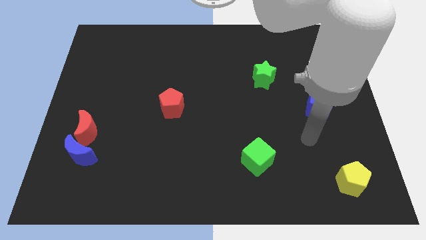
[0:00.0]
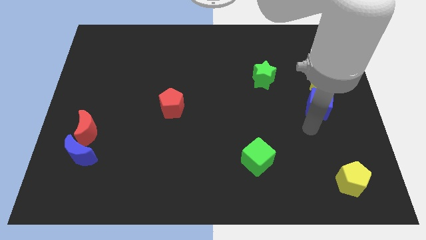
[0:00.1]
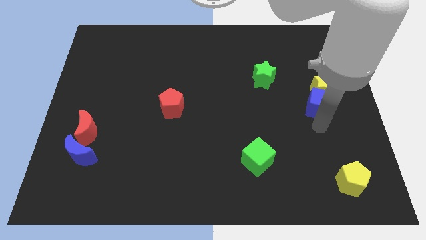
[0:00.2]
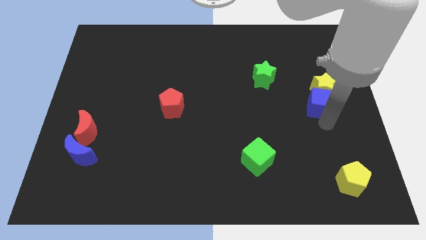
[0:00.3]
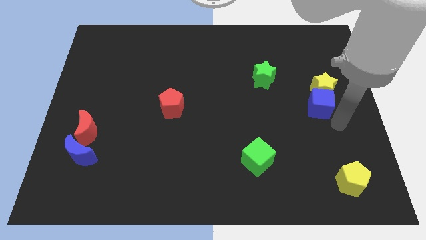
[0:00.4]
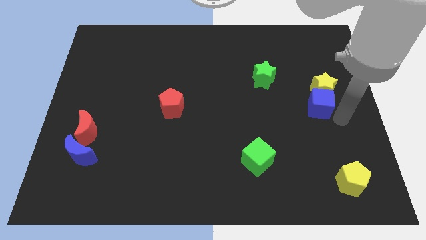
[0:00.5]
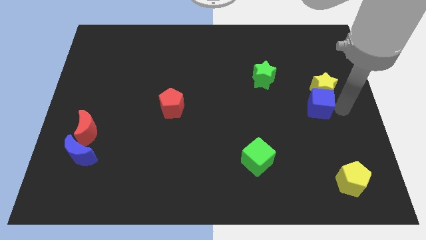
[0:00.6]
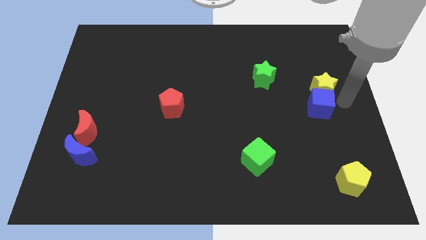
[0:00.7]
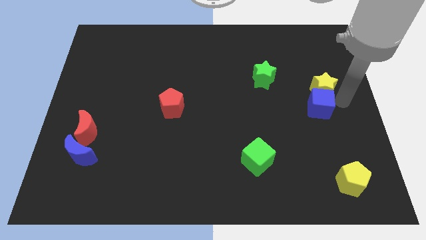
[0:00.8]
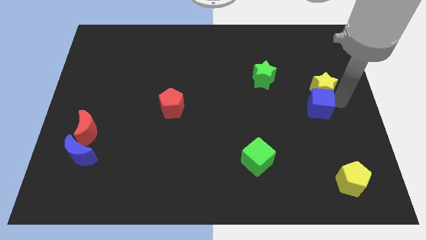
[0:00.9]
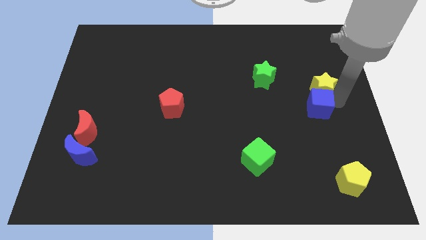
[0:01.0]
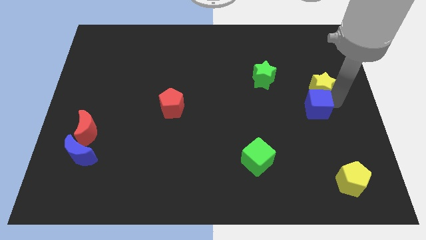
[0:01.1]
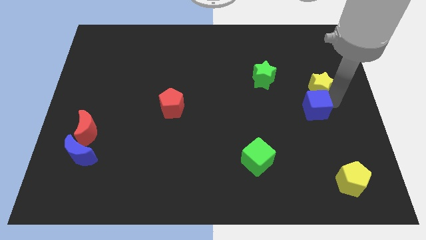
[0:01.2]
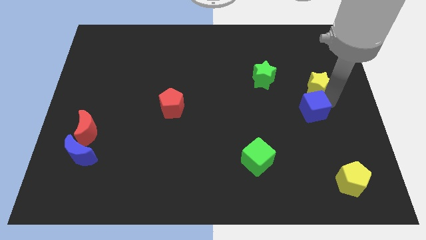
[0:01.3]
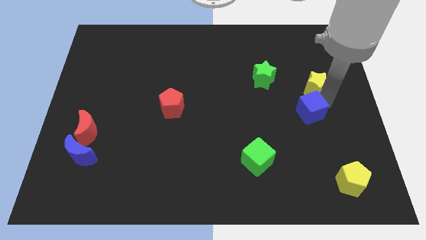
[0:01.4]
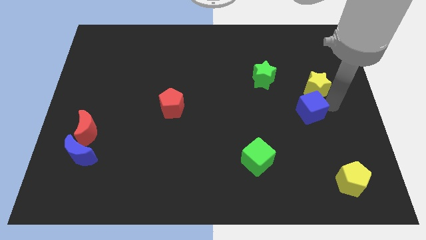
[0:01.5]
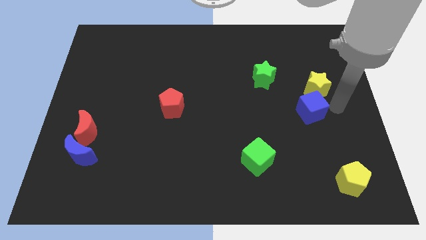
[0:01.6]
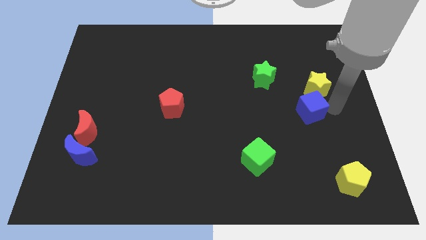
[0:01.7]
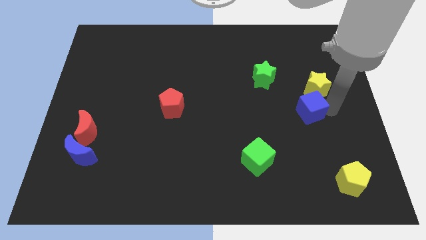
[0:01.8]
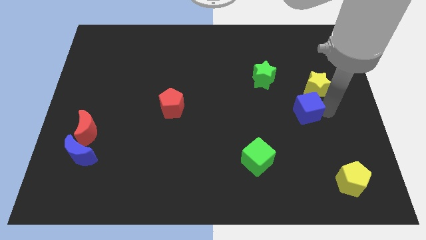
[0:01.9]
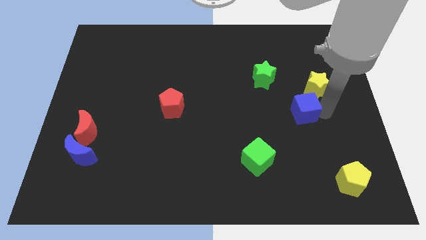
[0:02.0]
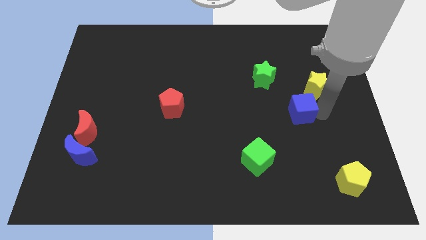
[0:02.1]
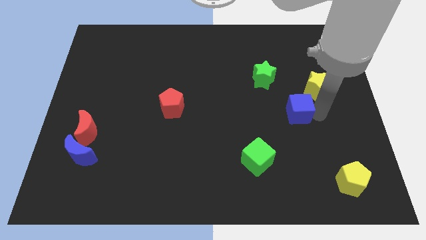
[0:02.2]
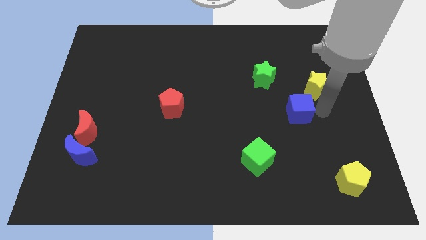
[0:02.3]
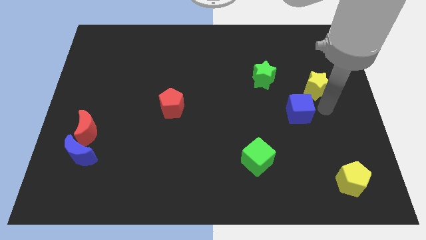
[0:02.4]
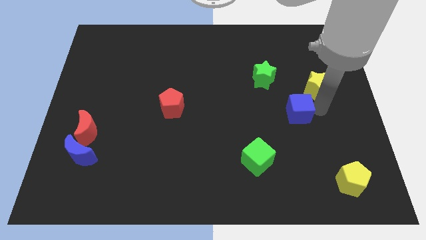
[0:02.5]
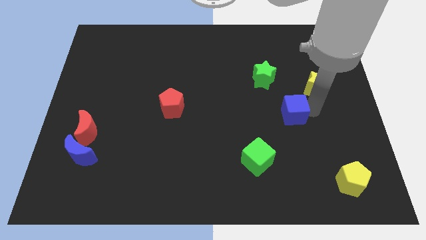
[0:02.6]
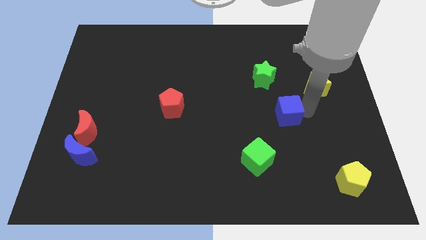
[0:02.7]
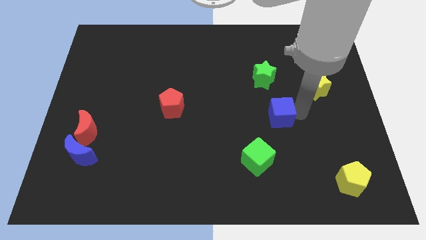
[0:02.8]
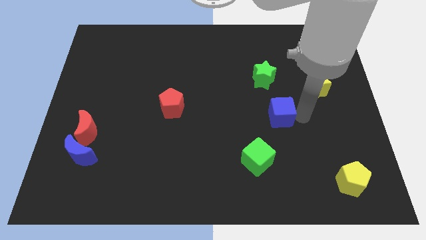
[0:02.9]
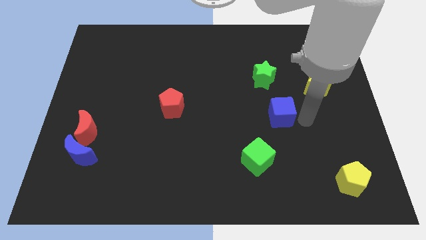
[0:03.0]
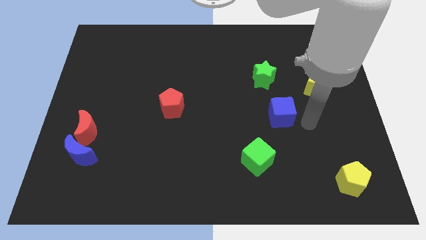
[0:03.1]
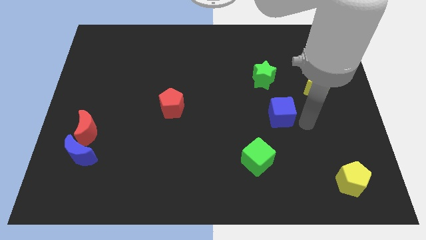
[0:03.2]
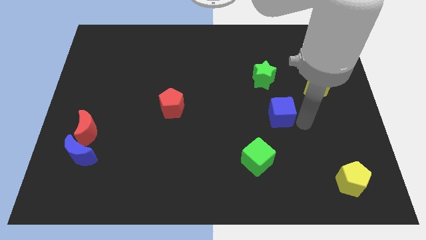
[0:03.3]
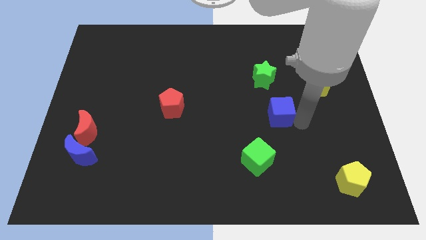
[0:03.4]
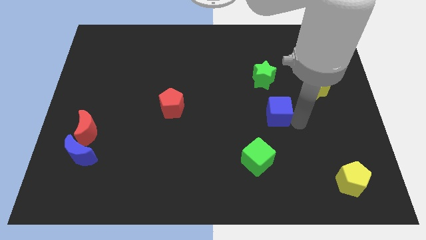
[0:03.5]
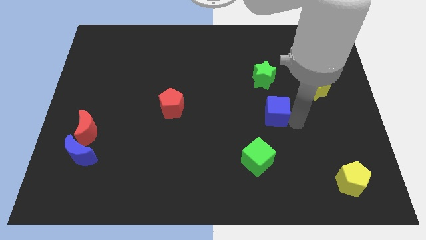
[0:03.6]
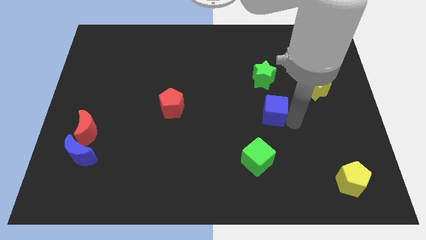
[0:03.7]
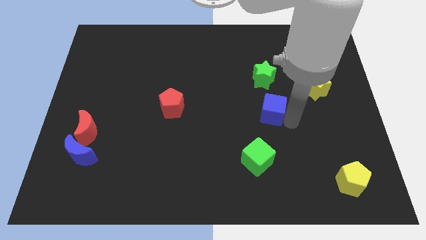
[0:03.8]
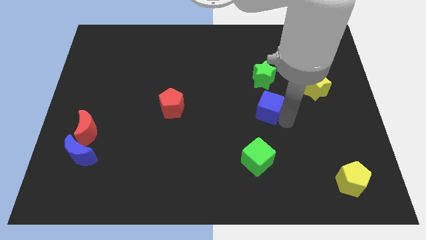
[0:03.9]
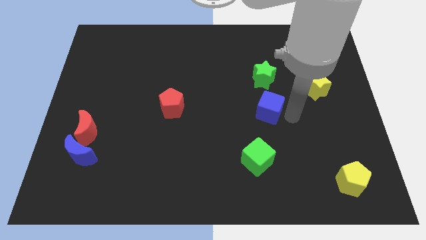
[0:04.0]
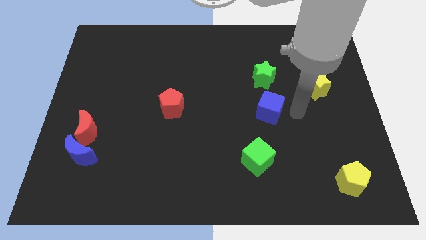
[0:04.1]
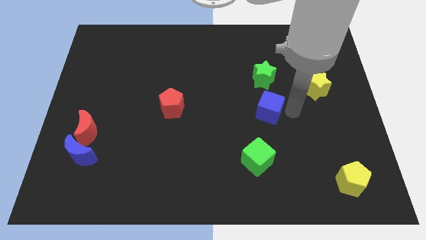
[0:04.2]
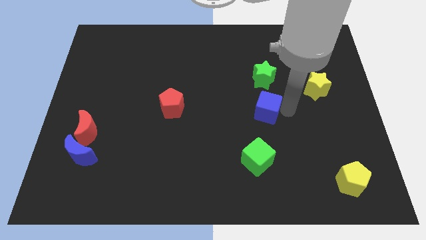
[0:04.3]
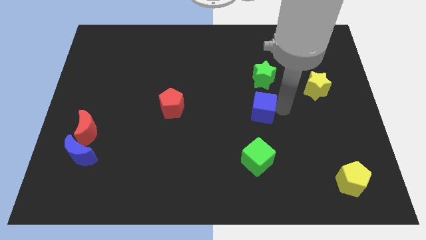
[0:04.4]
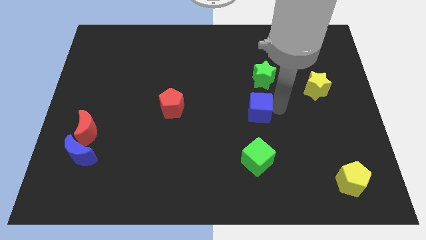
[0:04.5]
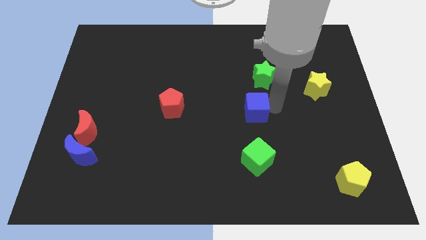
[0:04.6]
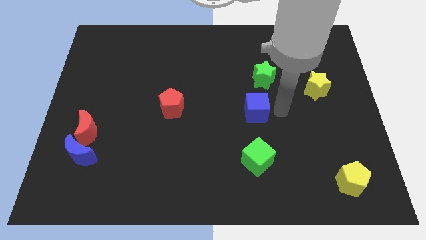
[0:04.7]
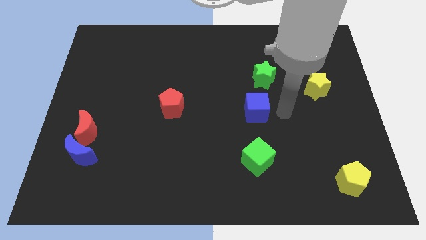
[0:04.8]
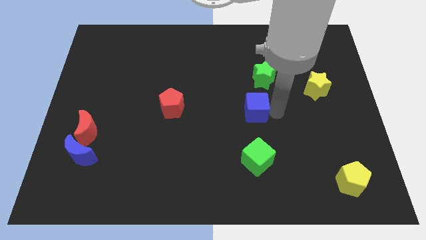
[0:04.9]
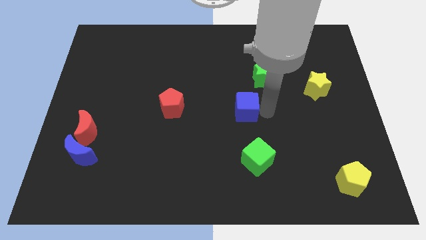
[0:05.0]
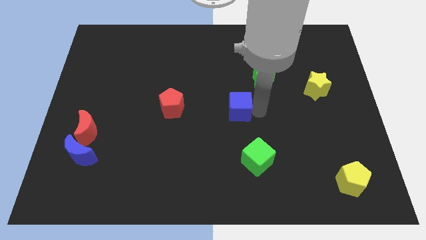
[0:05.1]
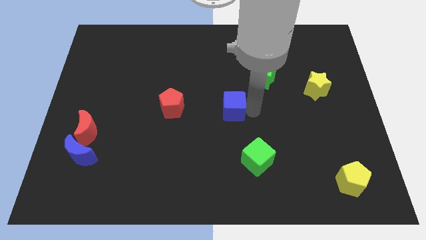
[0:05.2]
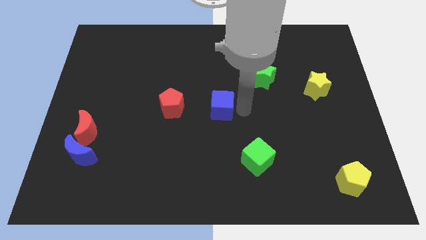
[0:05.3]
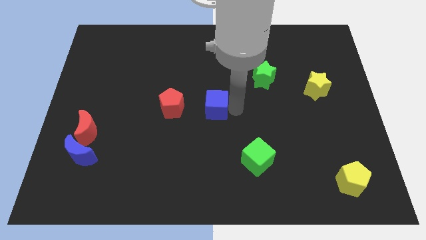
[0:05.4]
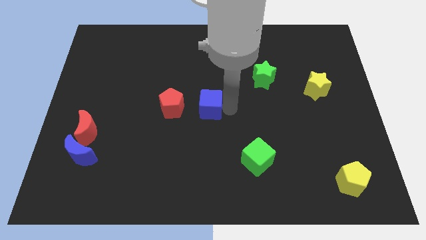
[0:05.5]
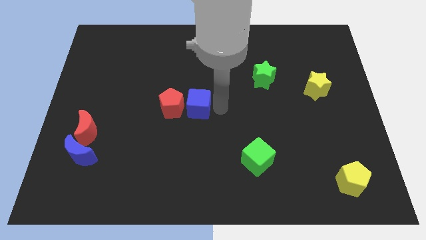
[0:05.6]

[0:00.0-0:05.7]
slide the blue cube close to the red pentagon

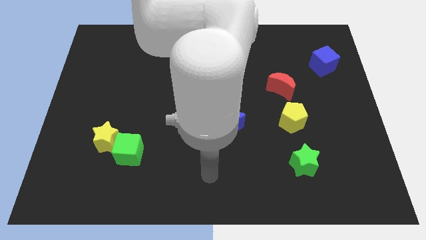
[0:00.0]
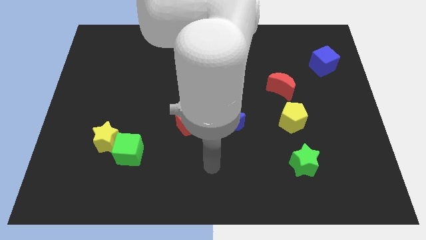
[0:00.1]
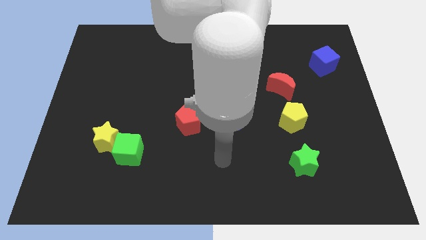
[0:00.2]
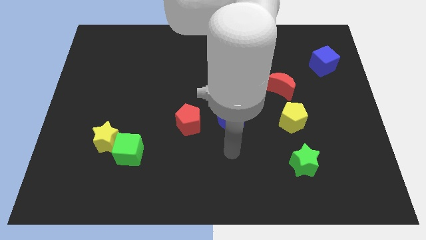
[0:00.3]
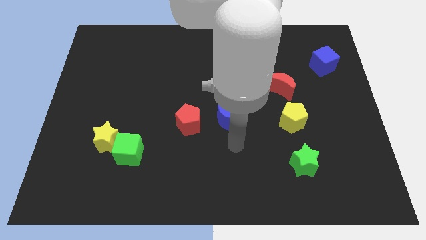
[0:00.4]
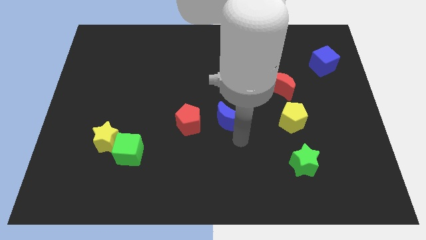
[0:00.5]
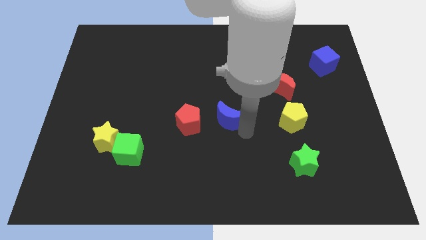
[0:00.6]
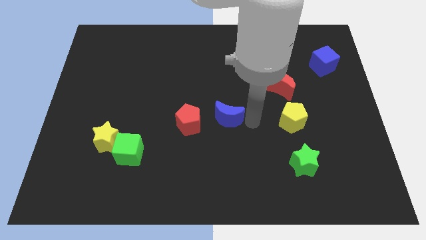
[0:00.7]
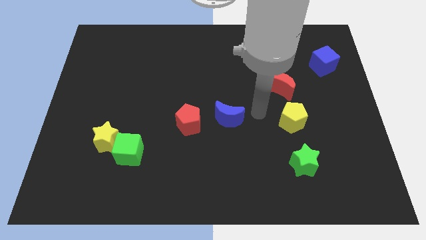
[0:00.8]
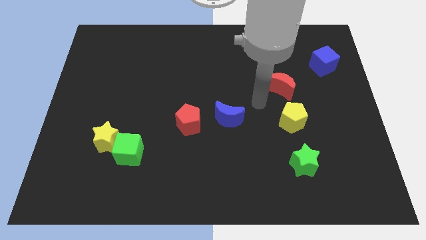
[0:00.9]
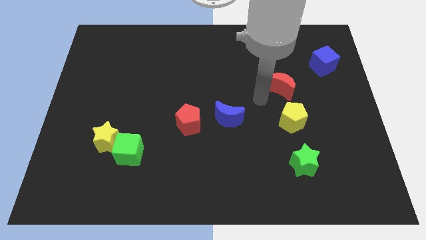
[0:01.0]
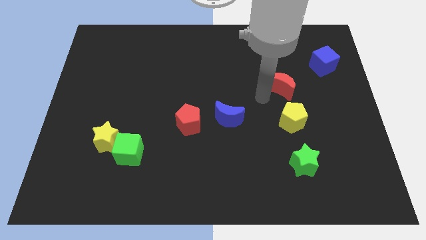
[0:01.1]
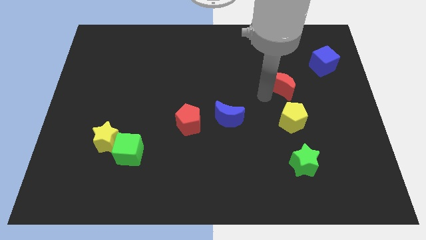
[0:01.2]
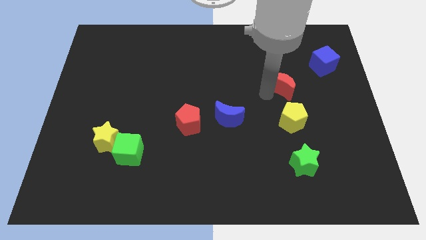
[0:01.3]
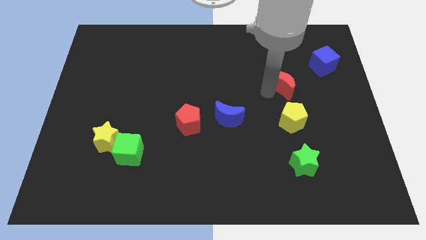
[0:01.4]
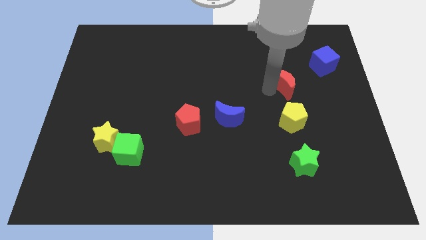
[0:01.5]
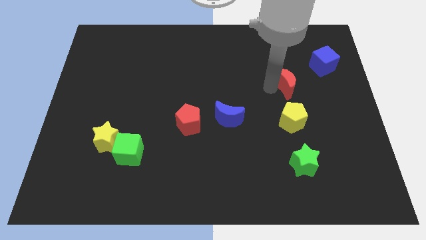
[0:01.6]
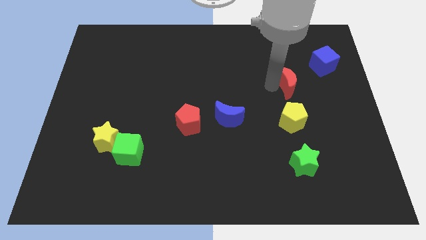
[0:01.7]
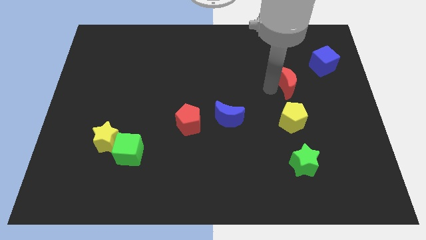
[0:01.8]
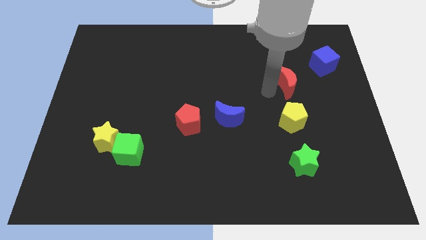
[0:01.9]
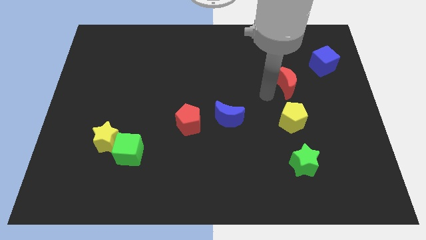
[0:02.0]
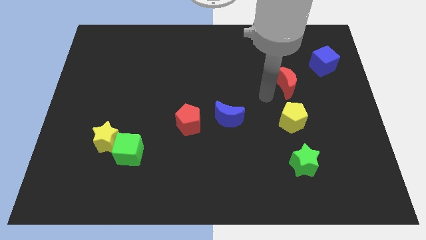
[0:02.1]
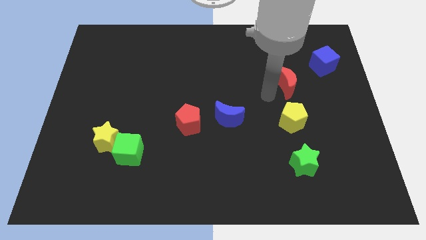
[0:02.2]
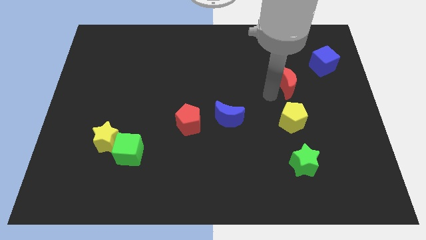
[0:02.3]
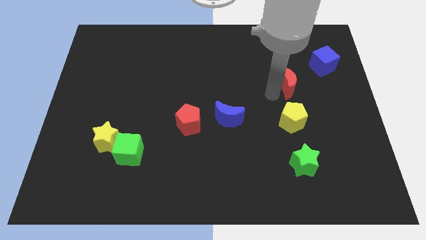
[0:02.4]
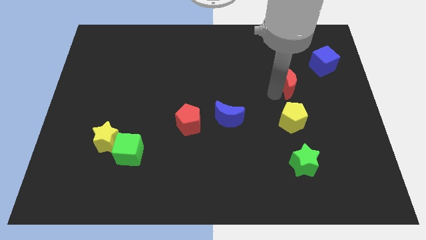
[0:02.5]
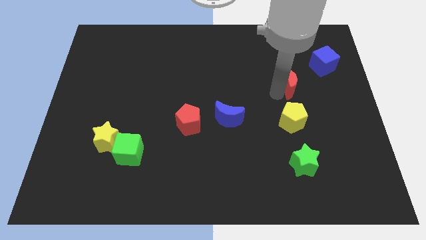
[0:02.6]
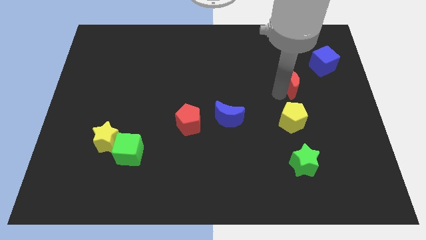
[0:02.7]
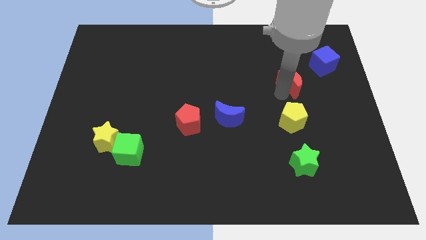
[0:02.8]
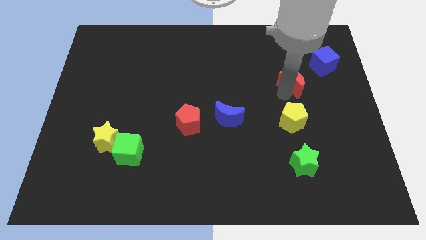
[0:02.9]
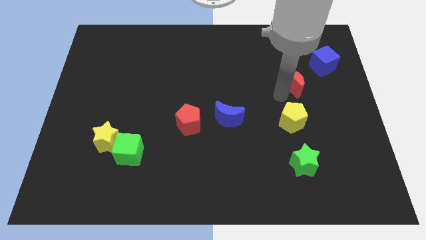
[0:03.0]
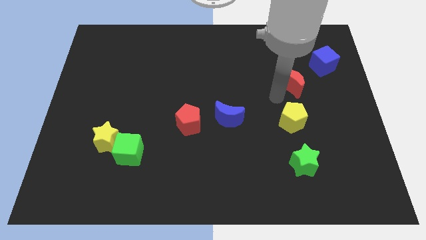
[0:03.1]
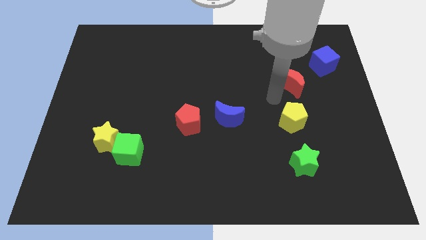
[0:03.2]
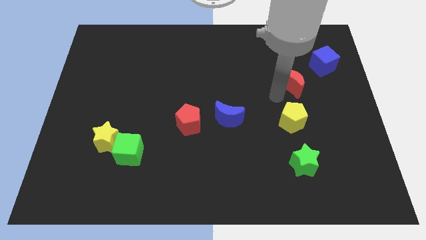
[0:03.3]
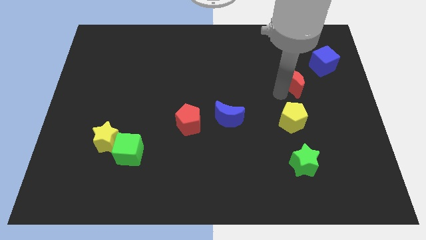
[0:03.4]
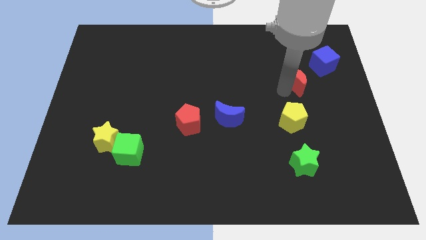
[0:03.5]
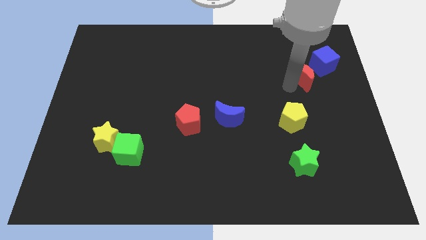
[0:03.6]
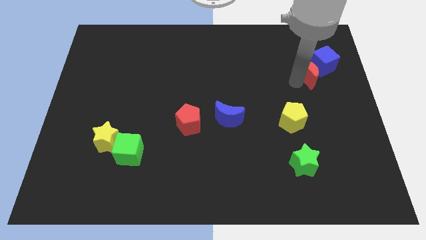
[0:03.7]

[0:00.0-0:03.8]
move the red moon to the blue cube
